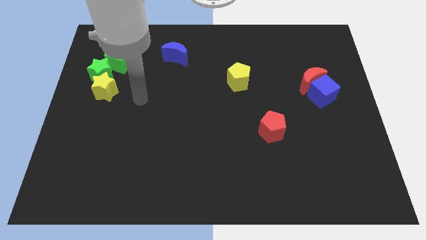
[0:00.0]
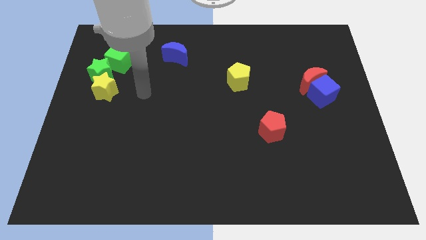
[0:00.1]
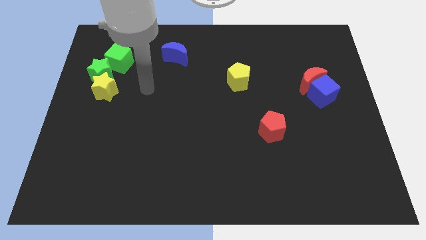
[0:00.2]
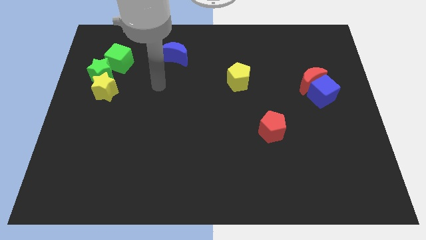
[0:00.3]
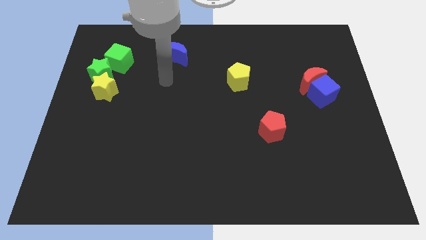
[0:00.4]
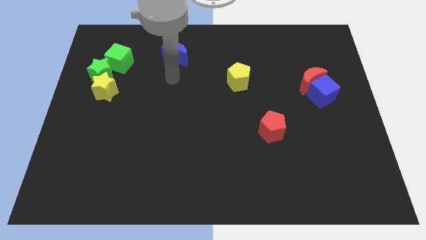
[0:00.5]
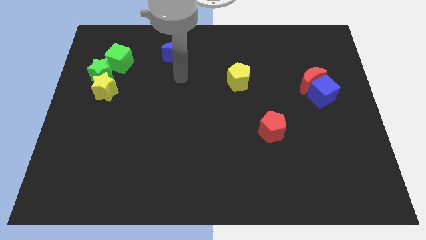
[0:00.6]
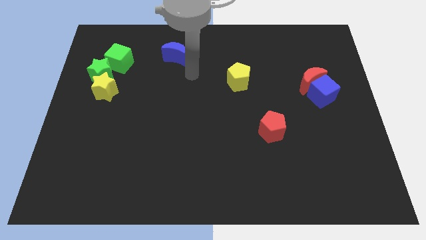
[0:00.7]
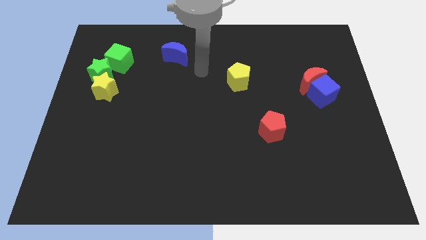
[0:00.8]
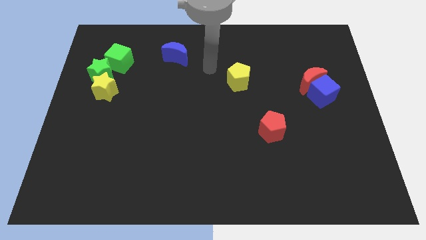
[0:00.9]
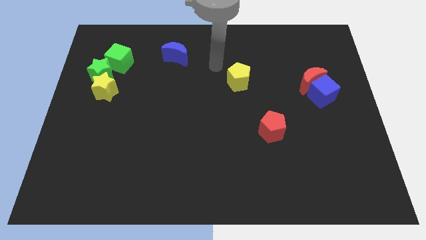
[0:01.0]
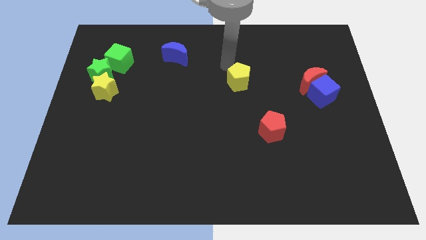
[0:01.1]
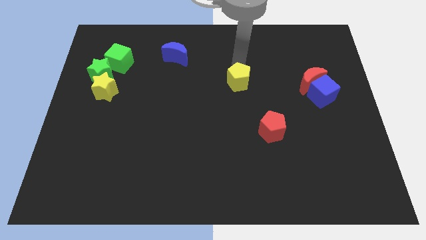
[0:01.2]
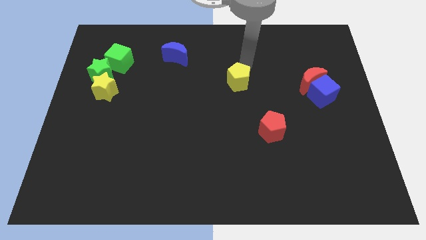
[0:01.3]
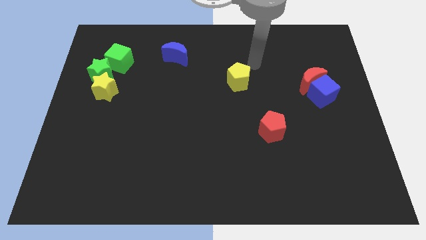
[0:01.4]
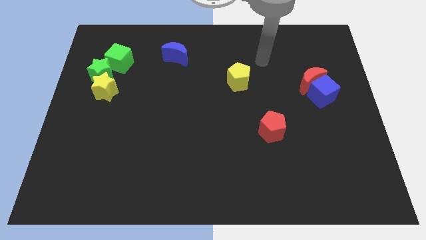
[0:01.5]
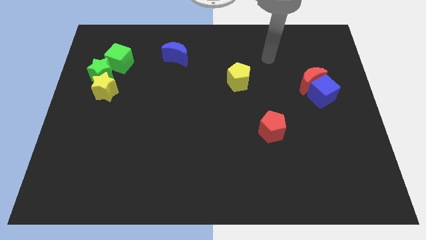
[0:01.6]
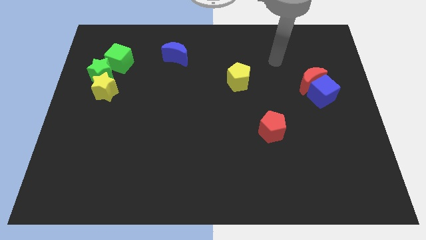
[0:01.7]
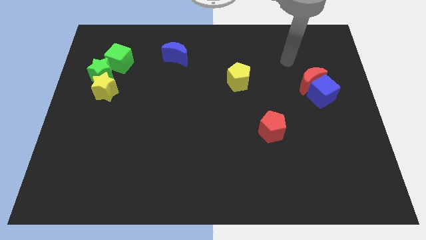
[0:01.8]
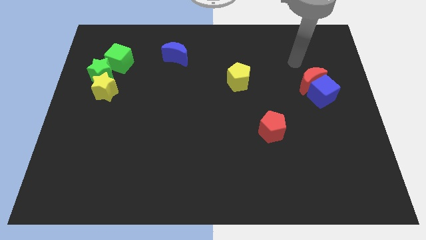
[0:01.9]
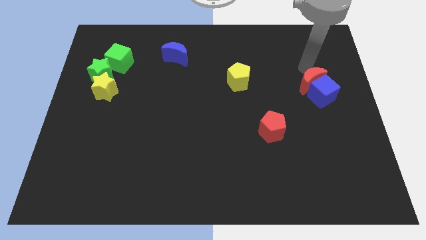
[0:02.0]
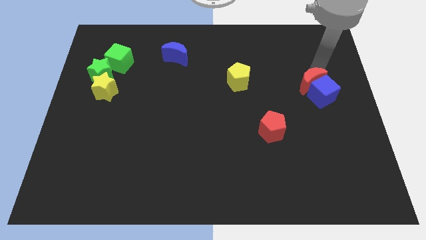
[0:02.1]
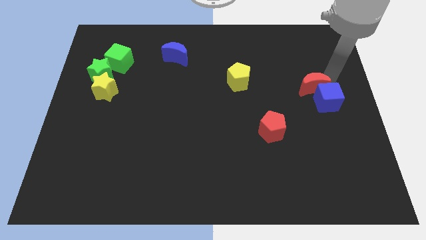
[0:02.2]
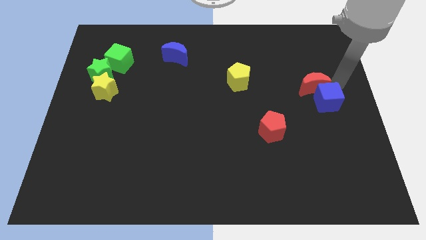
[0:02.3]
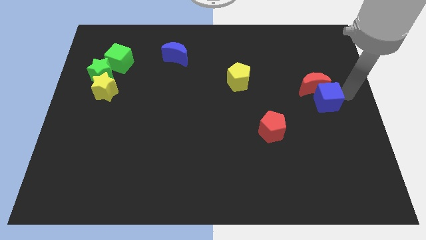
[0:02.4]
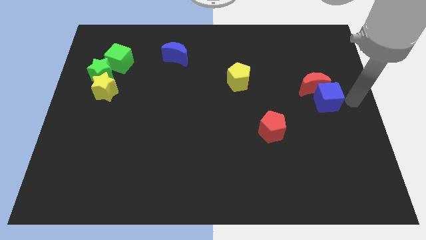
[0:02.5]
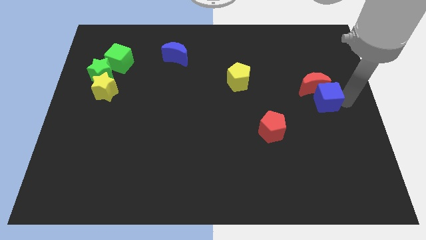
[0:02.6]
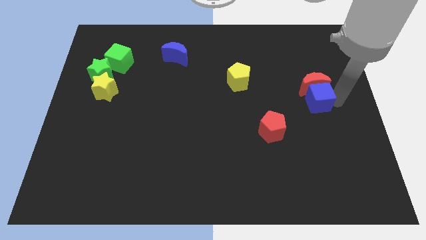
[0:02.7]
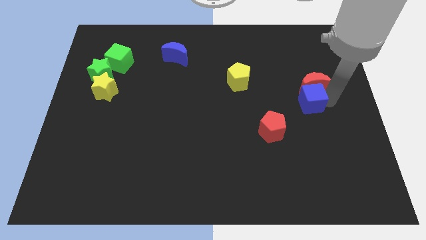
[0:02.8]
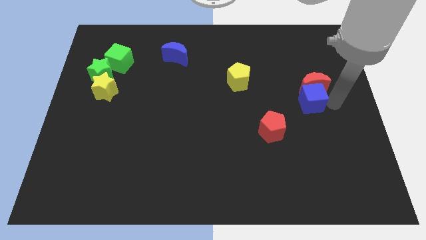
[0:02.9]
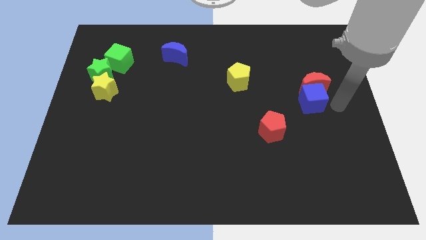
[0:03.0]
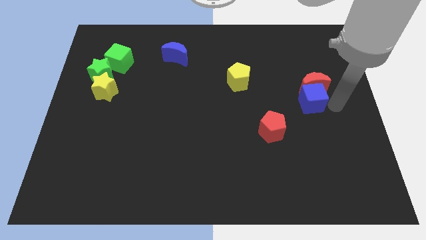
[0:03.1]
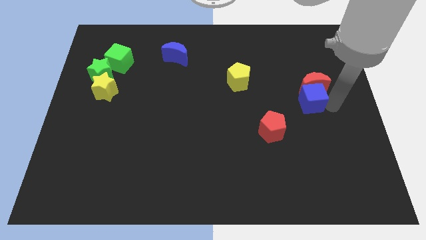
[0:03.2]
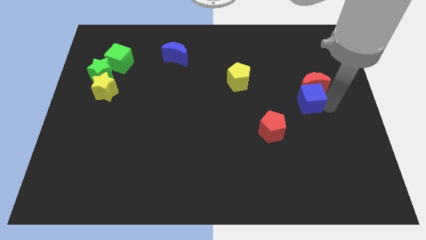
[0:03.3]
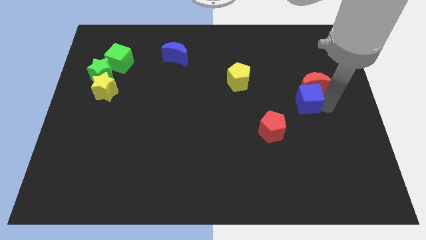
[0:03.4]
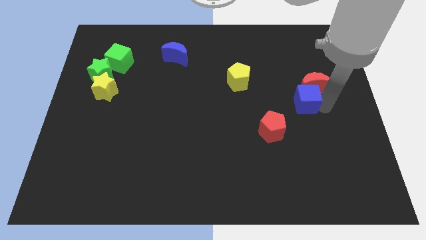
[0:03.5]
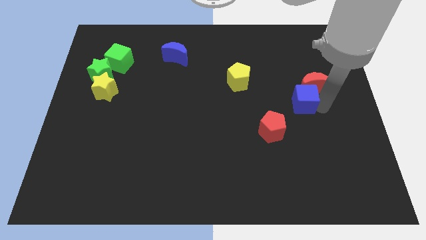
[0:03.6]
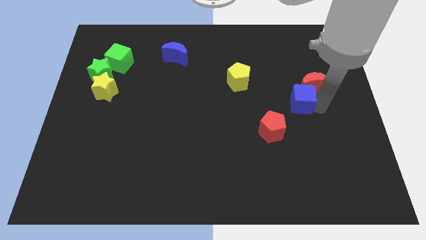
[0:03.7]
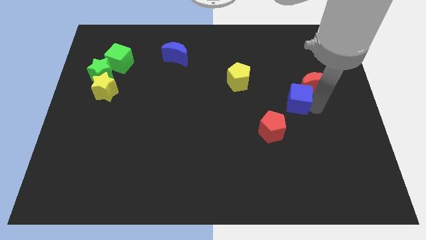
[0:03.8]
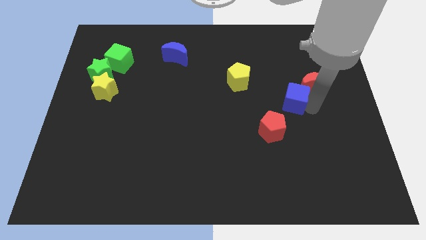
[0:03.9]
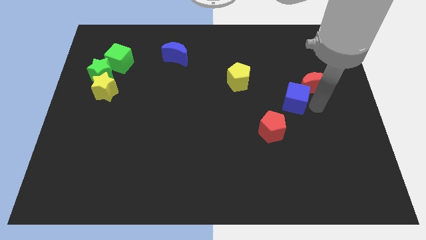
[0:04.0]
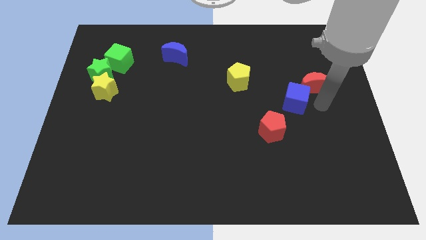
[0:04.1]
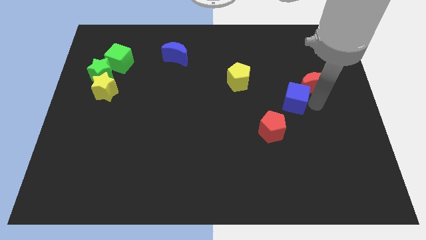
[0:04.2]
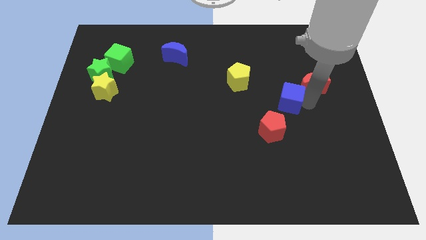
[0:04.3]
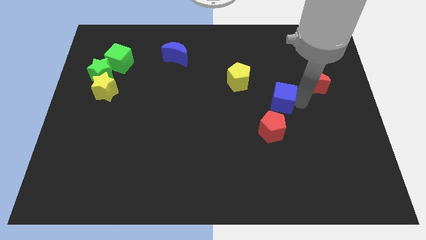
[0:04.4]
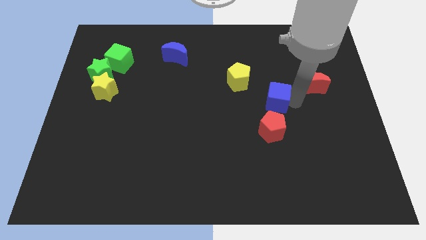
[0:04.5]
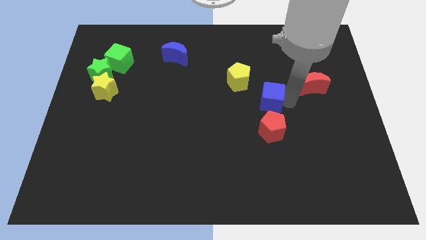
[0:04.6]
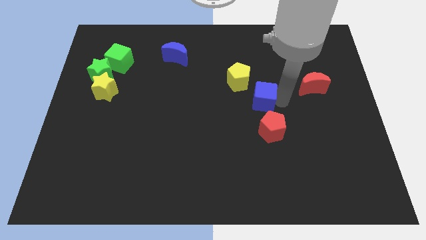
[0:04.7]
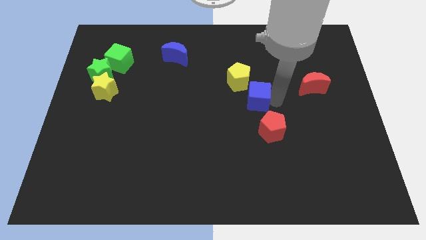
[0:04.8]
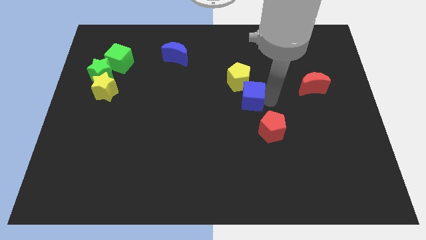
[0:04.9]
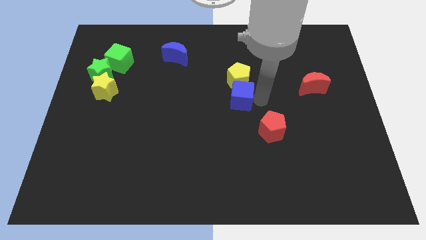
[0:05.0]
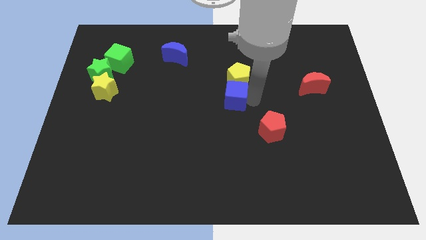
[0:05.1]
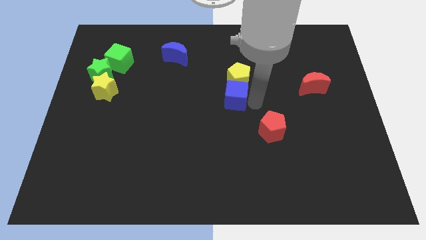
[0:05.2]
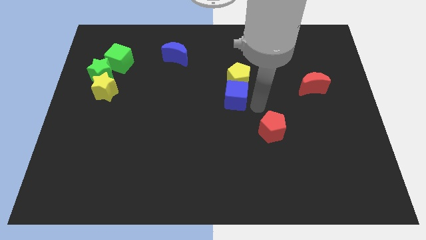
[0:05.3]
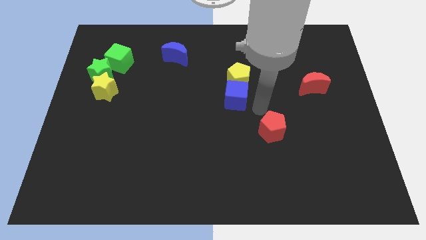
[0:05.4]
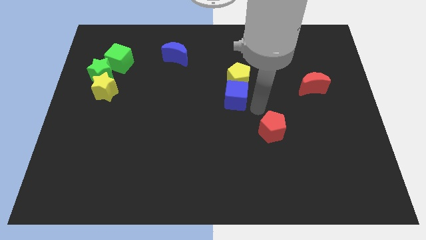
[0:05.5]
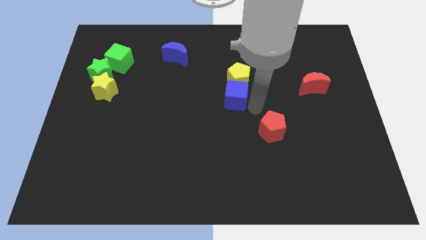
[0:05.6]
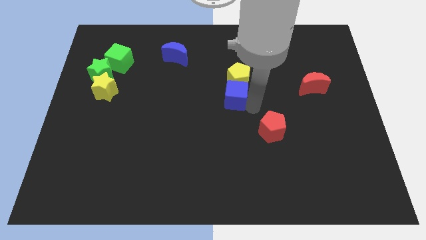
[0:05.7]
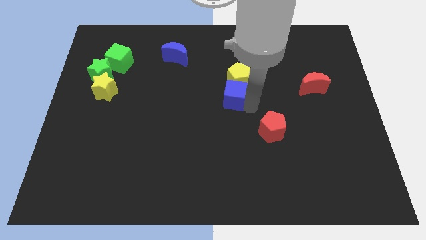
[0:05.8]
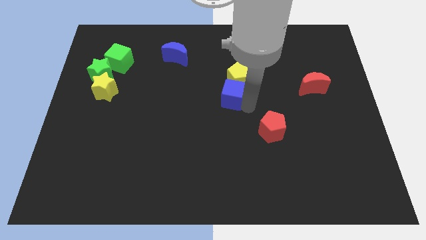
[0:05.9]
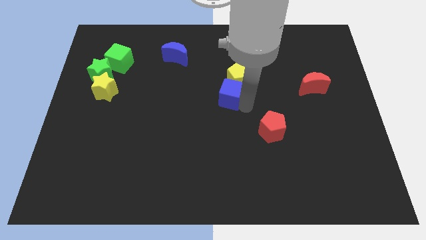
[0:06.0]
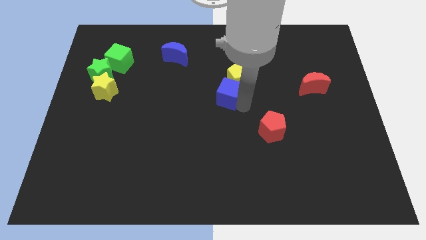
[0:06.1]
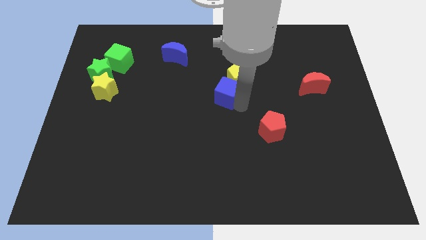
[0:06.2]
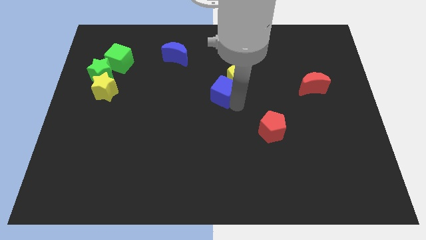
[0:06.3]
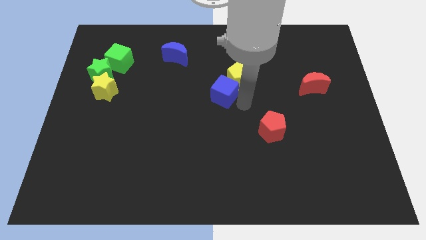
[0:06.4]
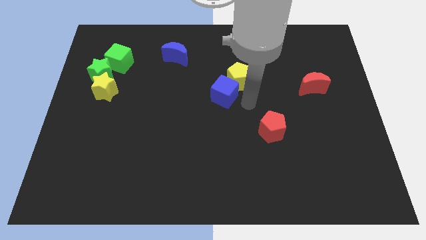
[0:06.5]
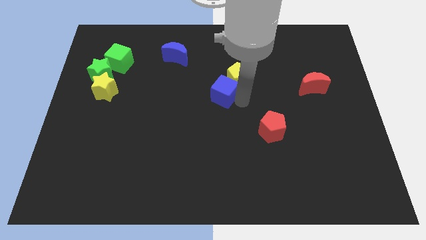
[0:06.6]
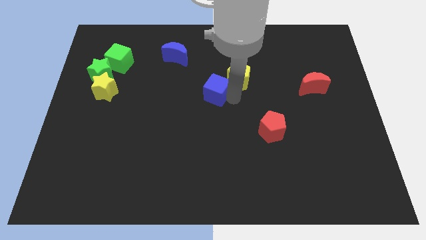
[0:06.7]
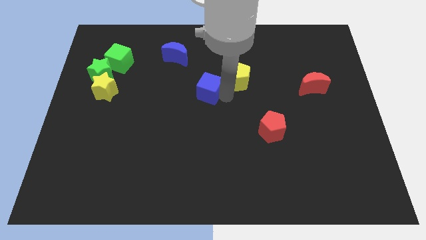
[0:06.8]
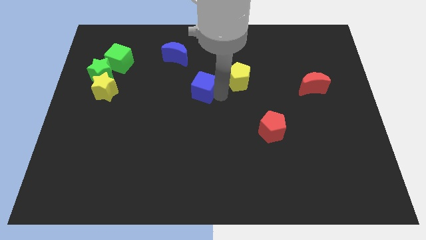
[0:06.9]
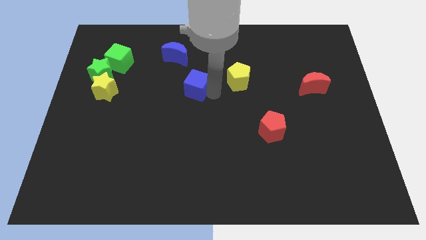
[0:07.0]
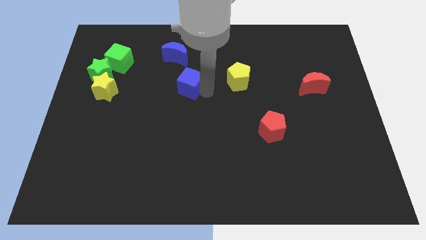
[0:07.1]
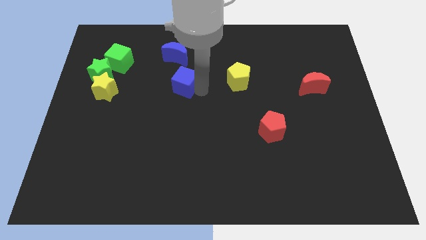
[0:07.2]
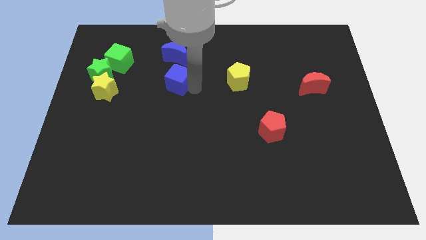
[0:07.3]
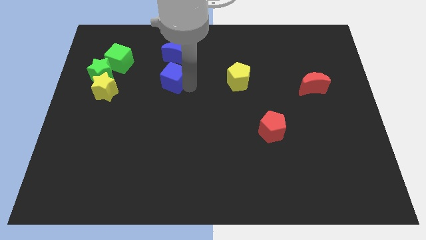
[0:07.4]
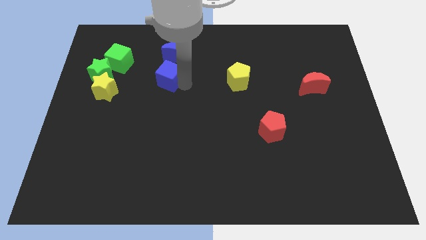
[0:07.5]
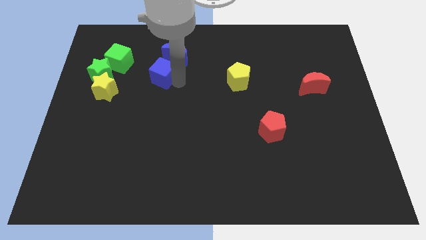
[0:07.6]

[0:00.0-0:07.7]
slide the blue cube just right of the green star
